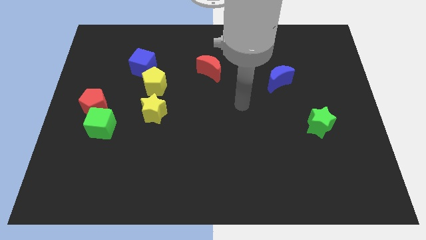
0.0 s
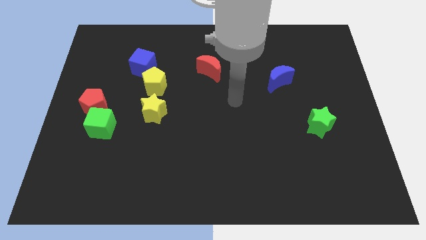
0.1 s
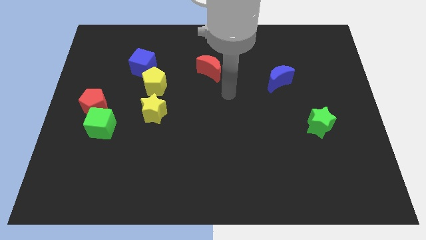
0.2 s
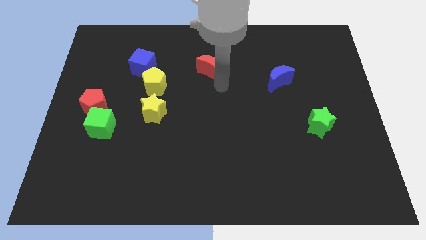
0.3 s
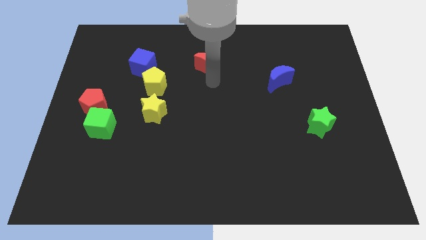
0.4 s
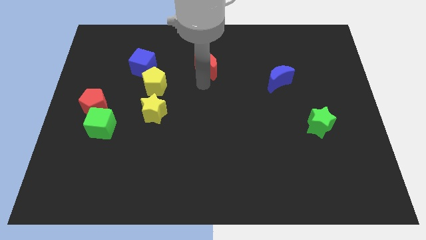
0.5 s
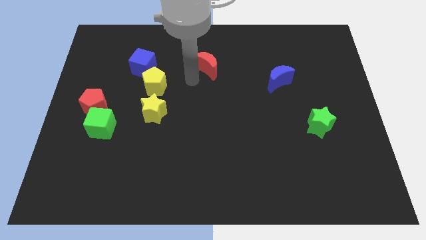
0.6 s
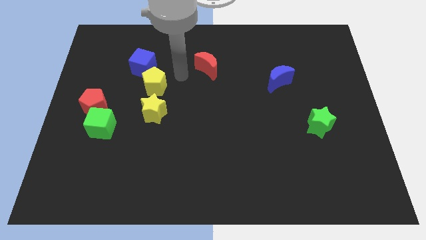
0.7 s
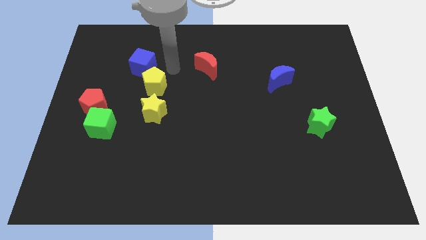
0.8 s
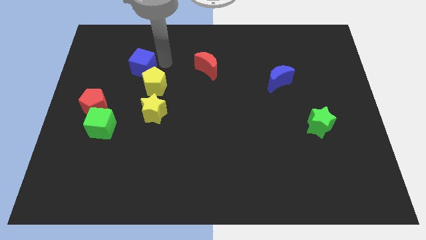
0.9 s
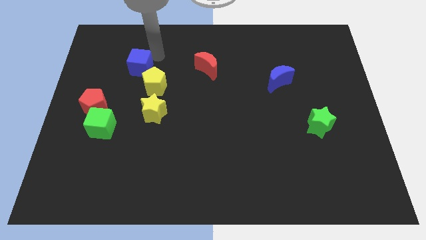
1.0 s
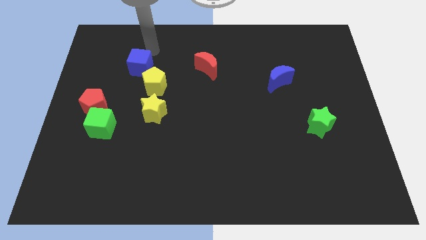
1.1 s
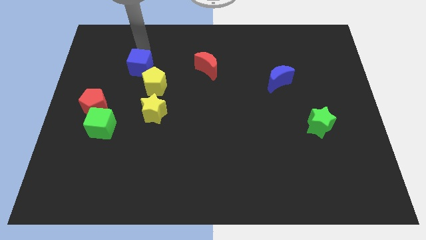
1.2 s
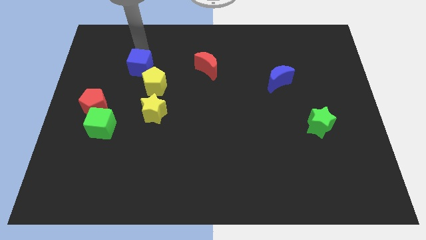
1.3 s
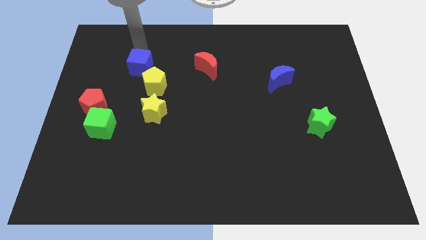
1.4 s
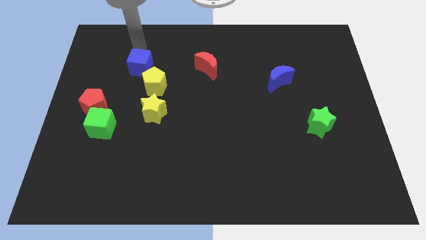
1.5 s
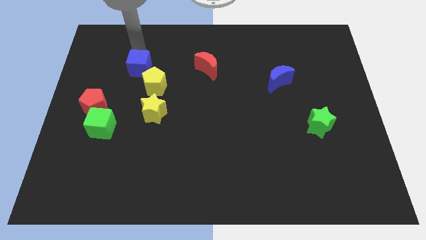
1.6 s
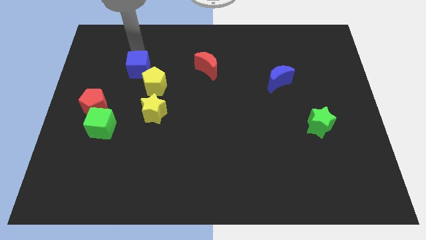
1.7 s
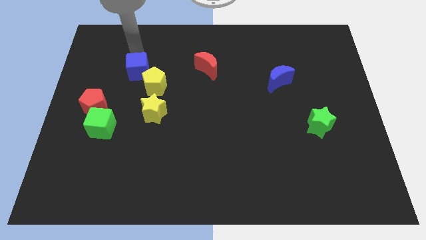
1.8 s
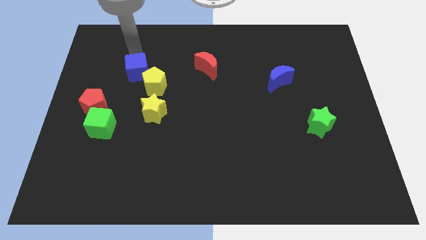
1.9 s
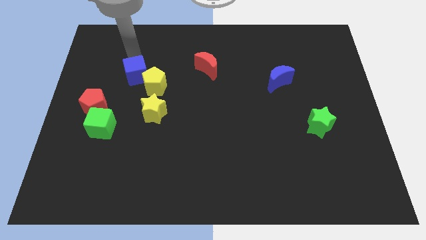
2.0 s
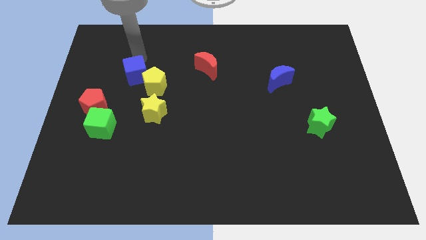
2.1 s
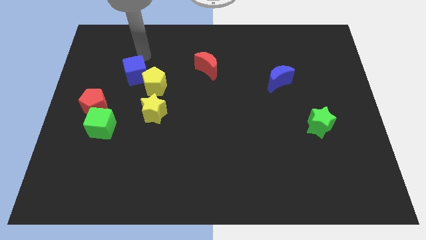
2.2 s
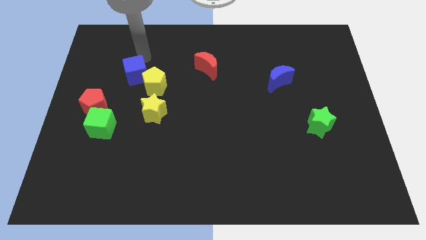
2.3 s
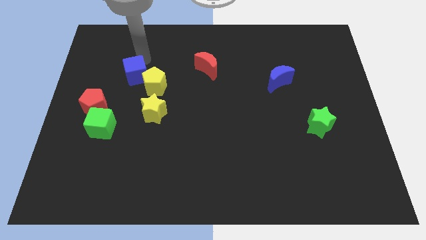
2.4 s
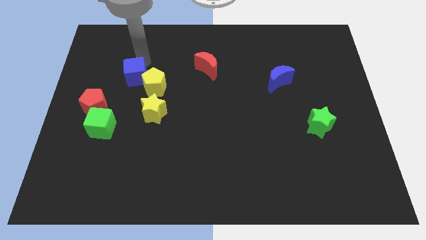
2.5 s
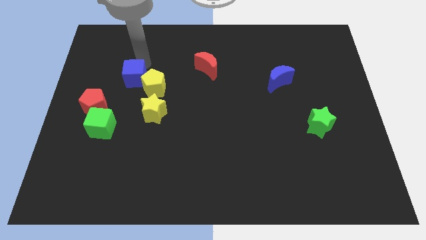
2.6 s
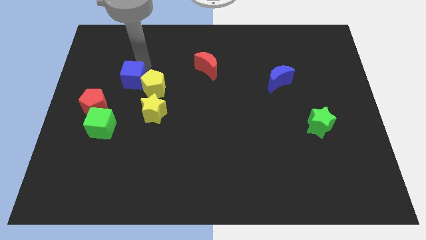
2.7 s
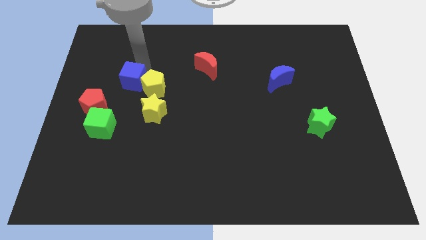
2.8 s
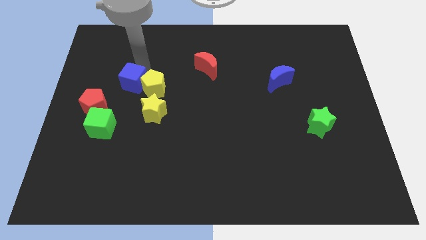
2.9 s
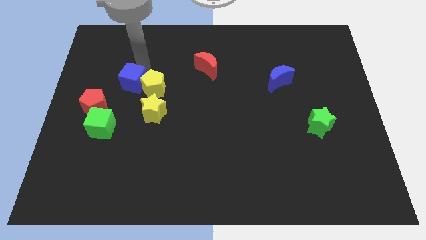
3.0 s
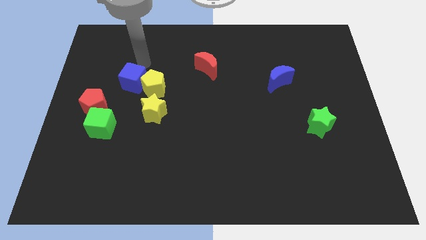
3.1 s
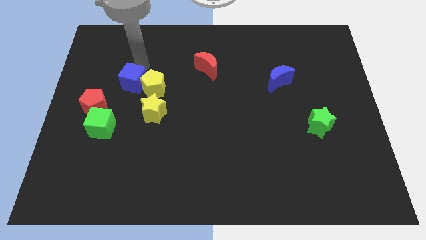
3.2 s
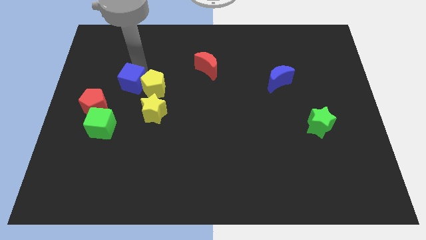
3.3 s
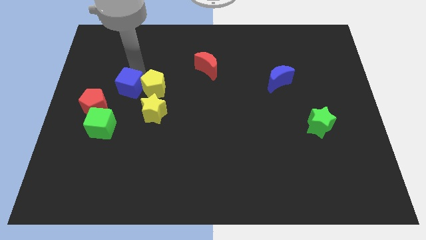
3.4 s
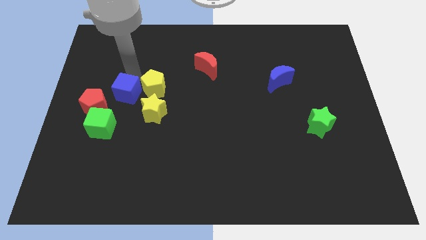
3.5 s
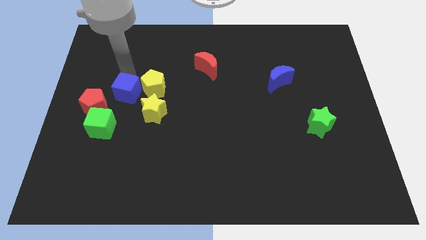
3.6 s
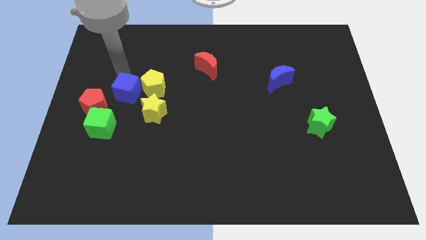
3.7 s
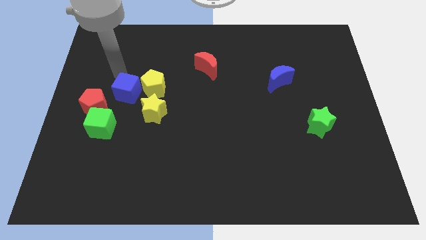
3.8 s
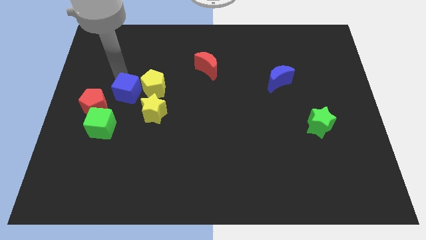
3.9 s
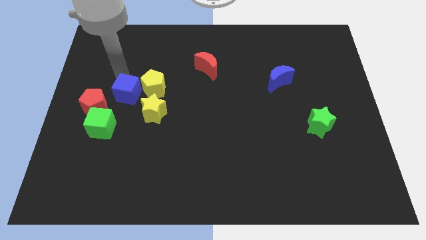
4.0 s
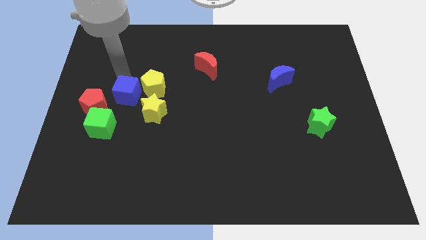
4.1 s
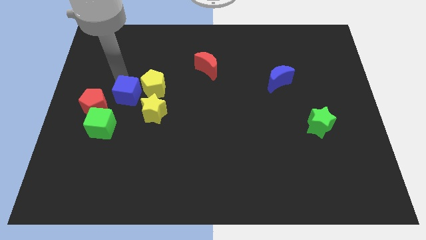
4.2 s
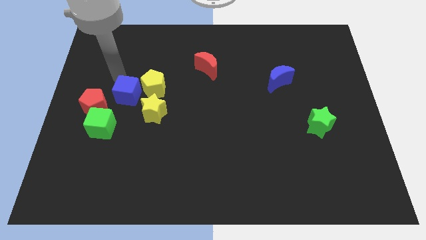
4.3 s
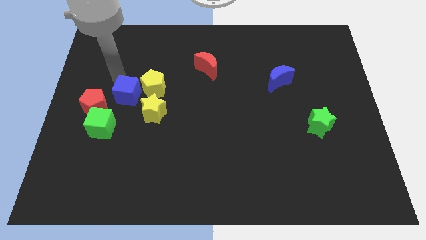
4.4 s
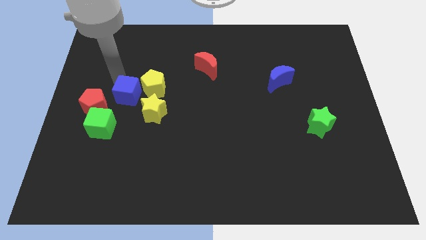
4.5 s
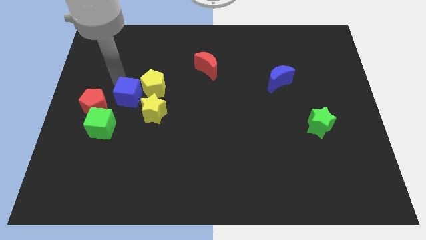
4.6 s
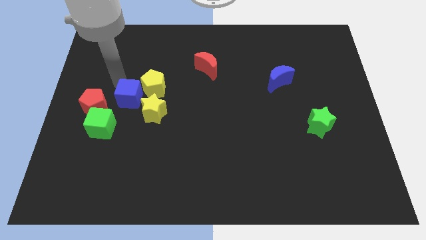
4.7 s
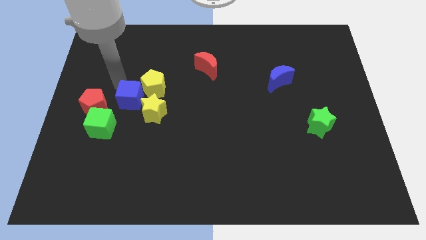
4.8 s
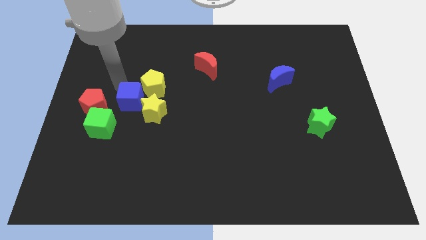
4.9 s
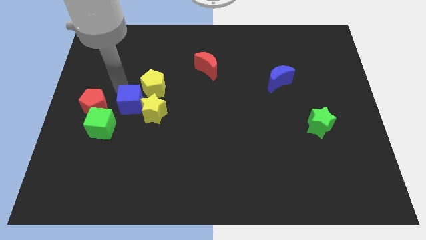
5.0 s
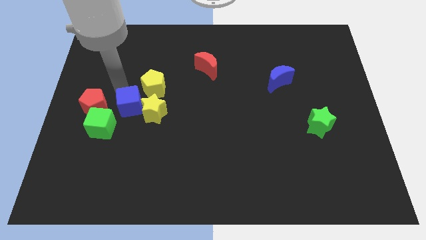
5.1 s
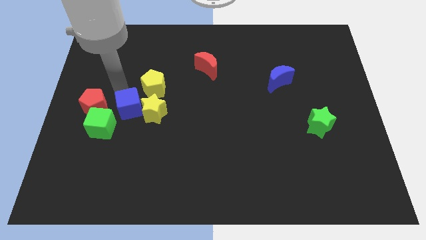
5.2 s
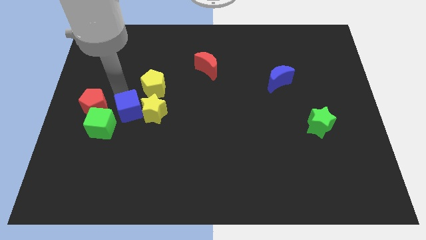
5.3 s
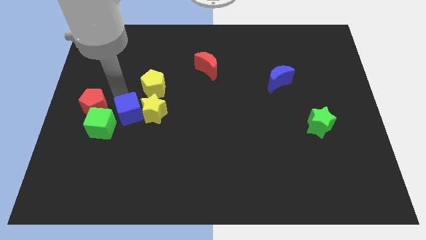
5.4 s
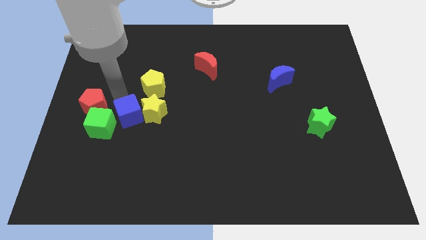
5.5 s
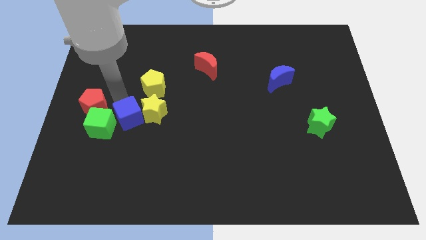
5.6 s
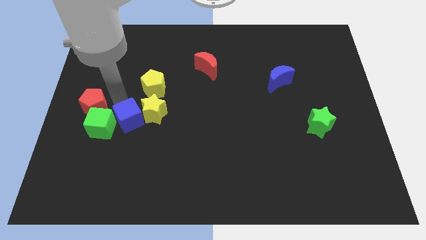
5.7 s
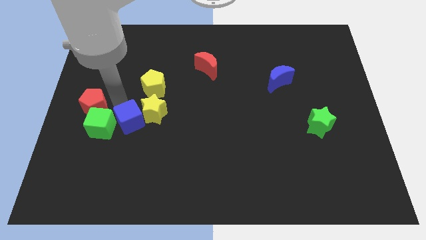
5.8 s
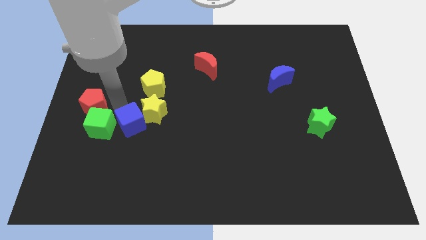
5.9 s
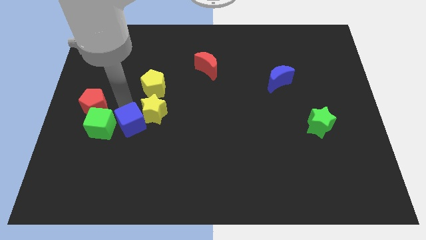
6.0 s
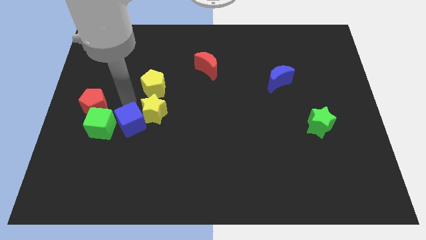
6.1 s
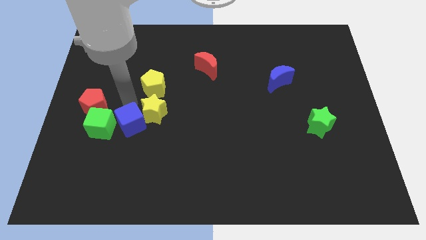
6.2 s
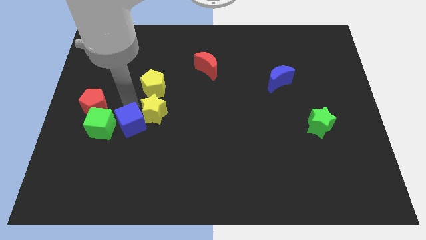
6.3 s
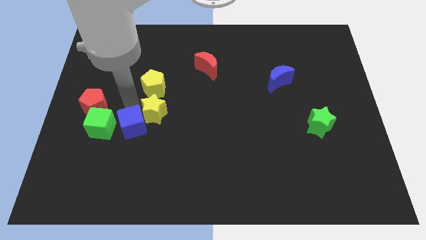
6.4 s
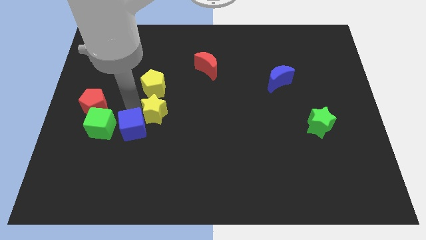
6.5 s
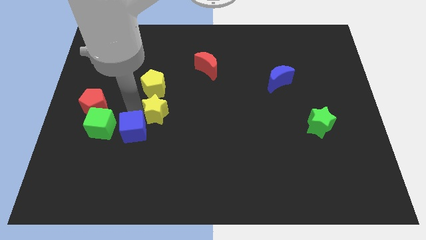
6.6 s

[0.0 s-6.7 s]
move the blue cube downwards

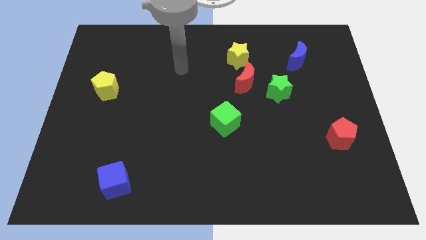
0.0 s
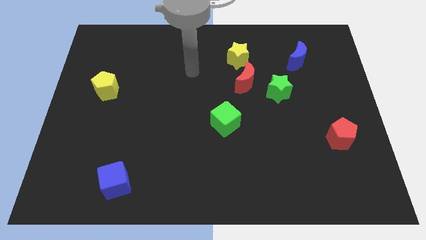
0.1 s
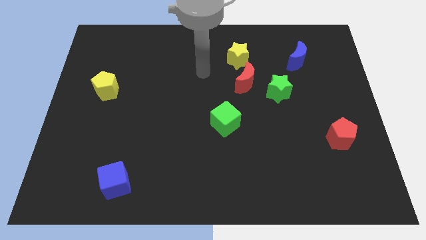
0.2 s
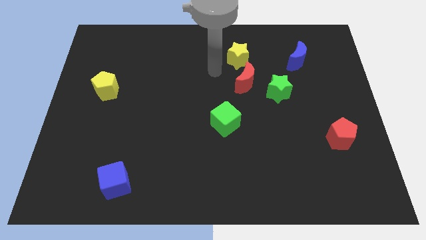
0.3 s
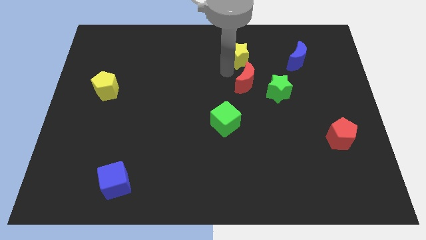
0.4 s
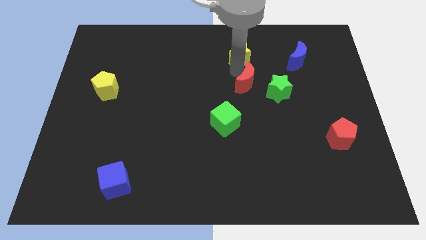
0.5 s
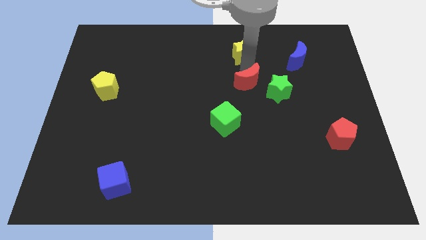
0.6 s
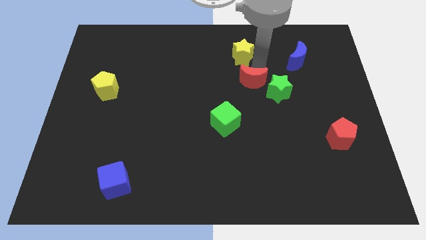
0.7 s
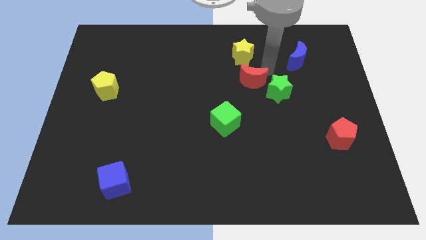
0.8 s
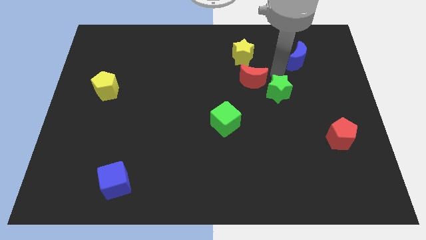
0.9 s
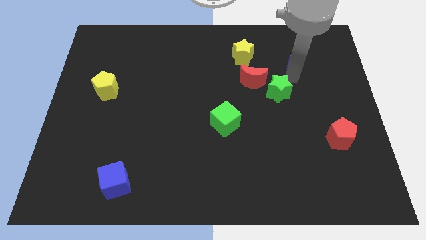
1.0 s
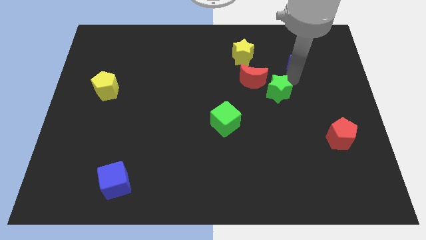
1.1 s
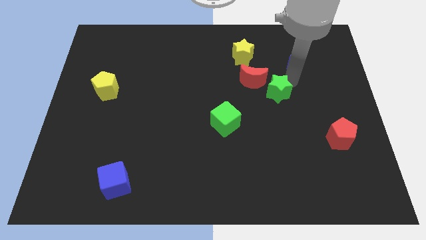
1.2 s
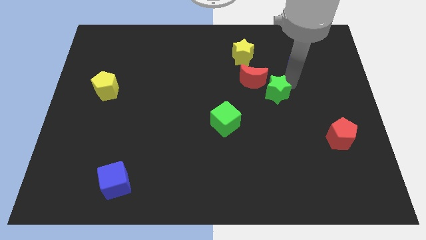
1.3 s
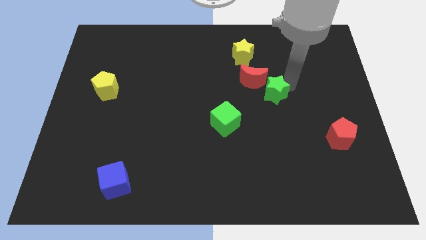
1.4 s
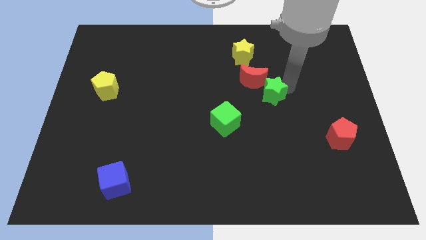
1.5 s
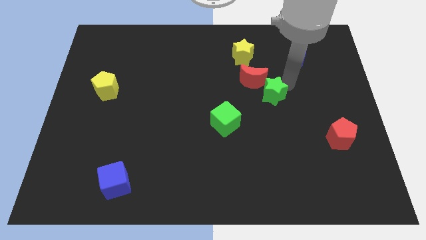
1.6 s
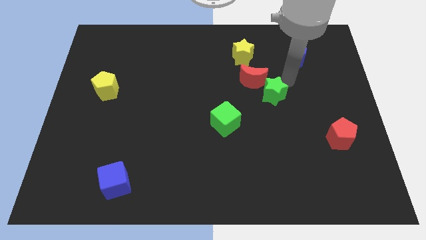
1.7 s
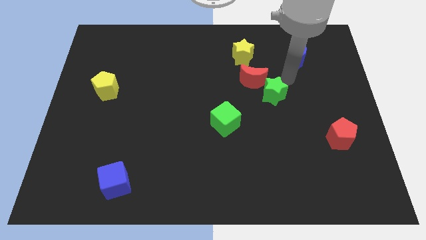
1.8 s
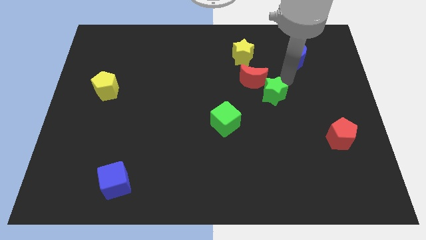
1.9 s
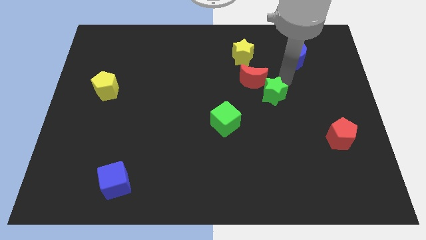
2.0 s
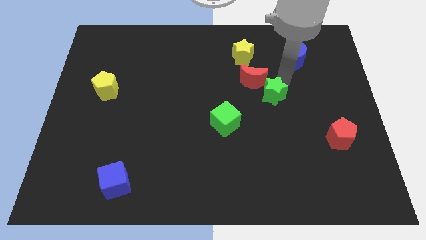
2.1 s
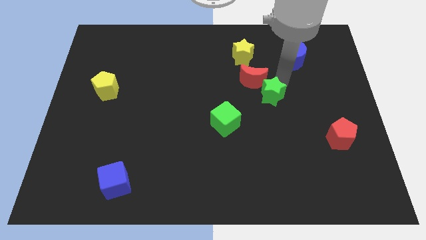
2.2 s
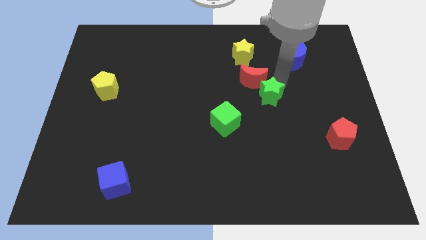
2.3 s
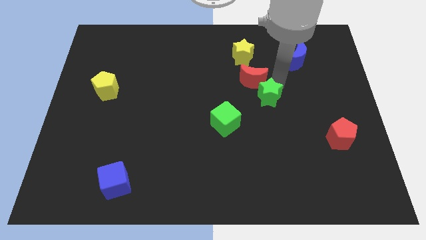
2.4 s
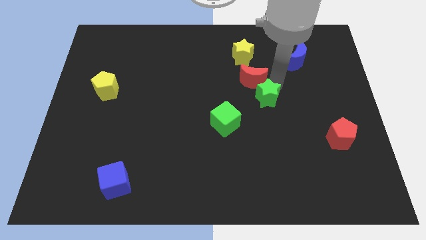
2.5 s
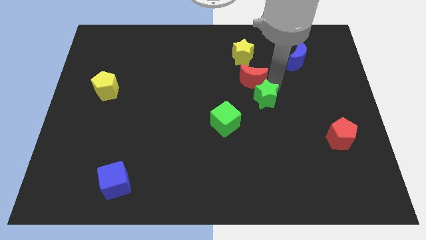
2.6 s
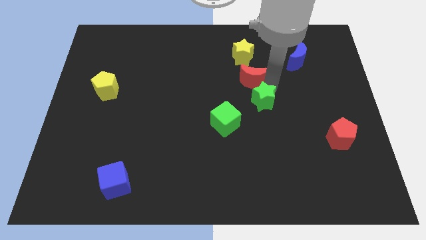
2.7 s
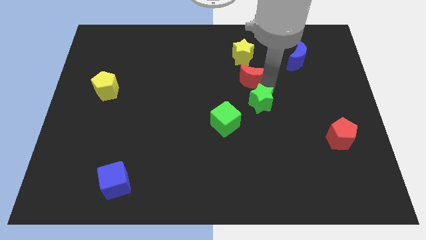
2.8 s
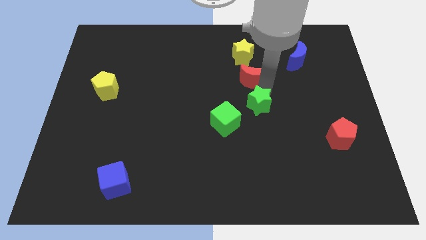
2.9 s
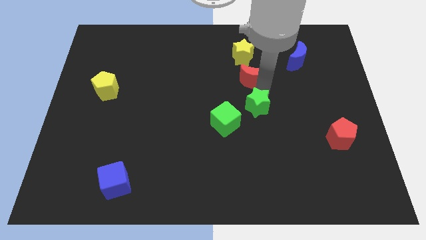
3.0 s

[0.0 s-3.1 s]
slide the green star downwards and to the left a little bit
